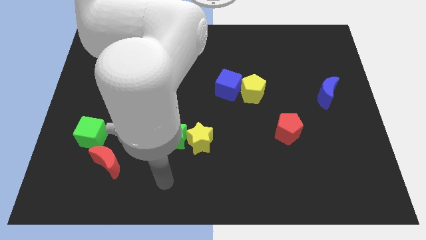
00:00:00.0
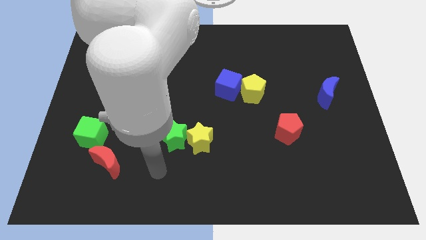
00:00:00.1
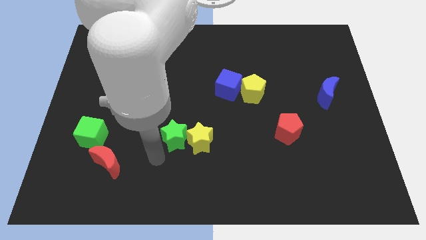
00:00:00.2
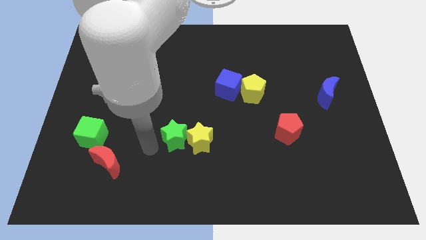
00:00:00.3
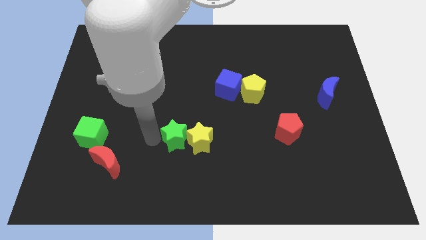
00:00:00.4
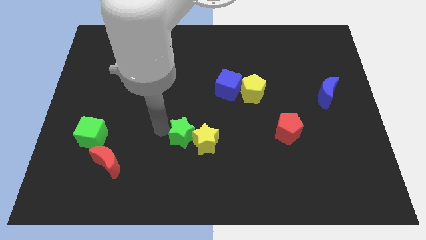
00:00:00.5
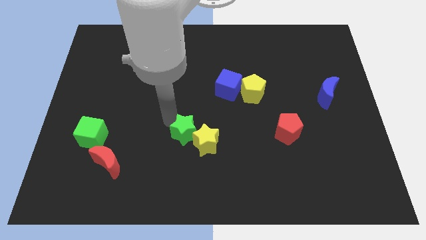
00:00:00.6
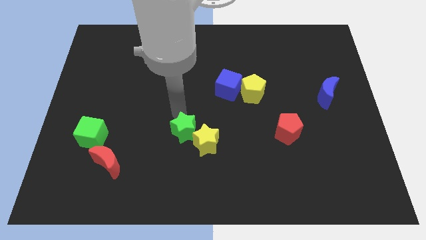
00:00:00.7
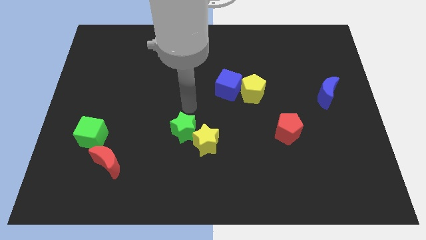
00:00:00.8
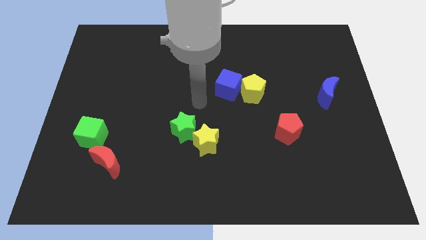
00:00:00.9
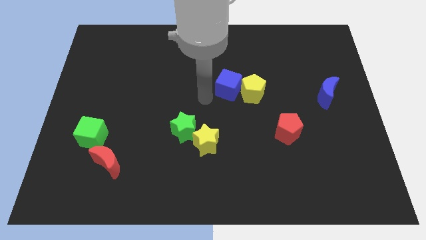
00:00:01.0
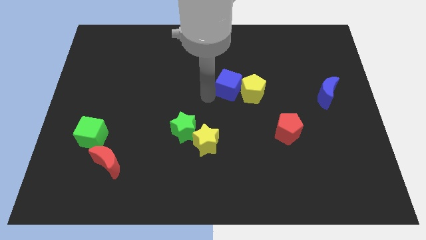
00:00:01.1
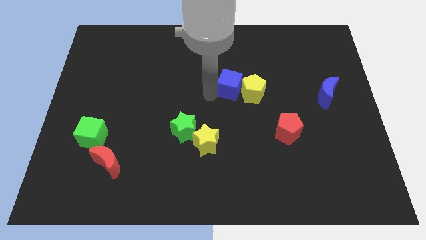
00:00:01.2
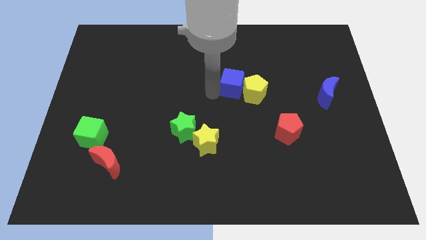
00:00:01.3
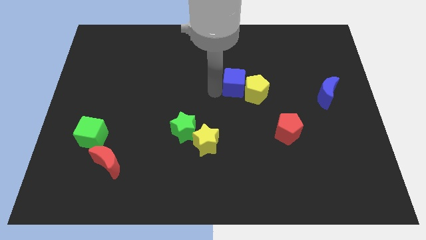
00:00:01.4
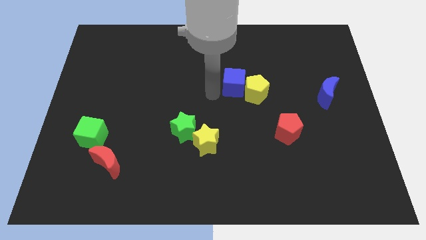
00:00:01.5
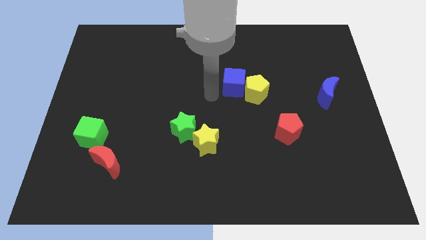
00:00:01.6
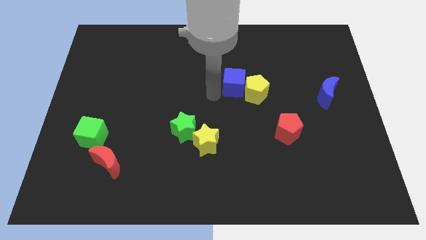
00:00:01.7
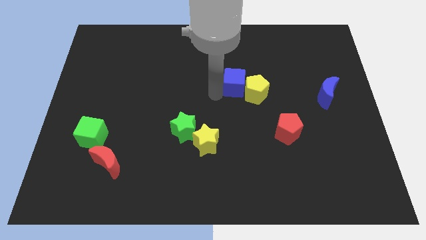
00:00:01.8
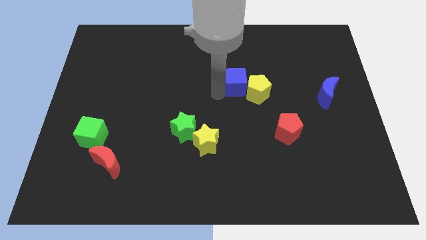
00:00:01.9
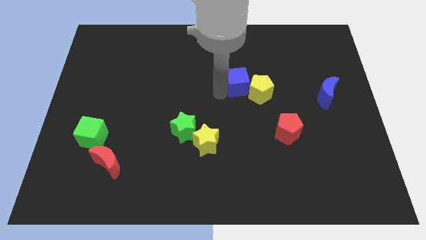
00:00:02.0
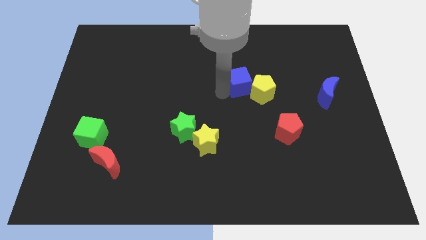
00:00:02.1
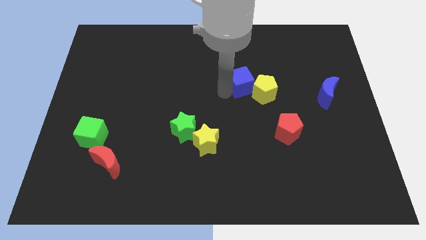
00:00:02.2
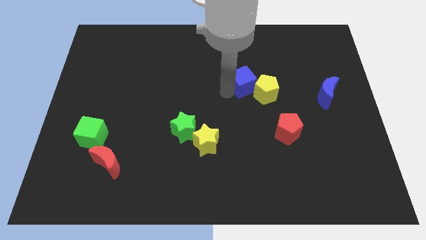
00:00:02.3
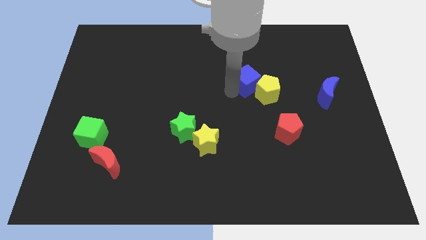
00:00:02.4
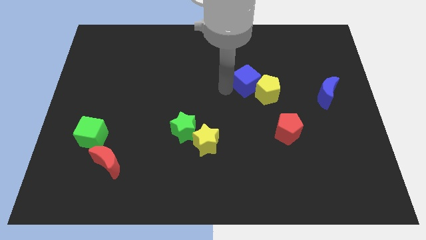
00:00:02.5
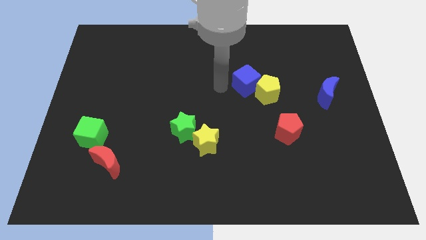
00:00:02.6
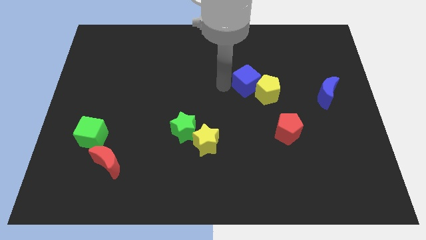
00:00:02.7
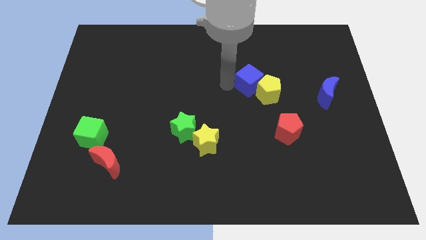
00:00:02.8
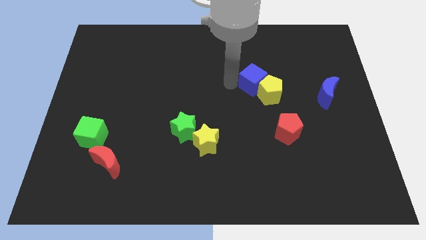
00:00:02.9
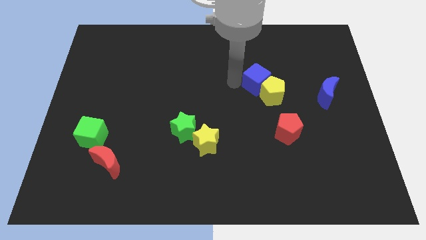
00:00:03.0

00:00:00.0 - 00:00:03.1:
slide the blue cube slightly to the right

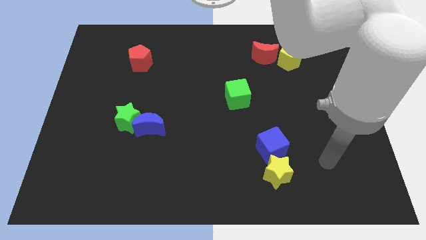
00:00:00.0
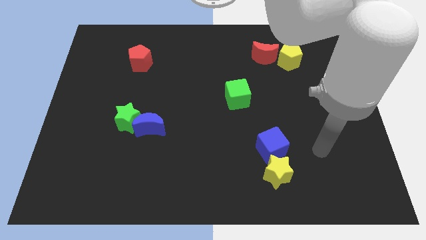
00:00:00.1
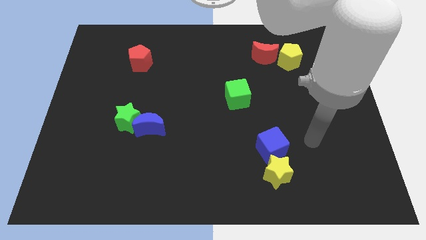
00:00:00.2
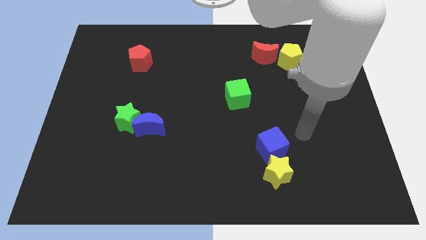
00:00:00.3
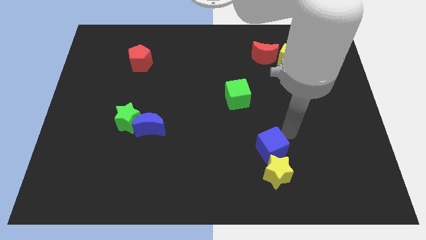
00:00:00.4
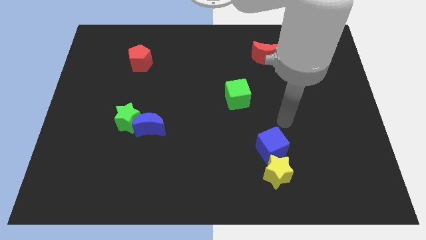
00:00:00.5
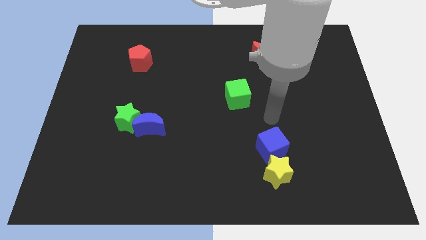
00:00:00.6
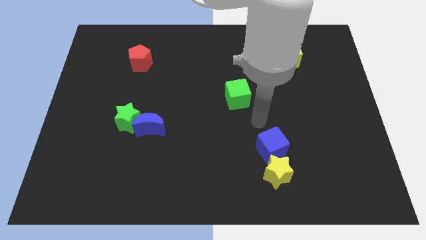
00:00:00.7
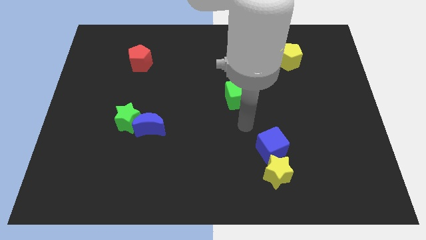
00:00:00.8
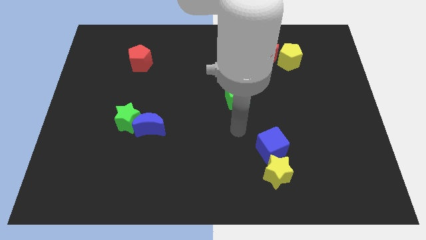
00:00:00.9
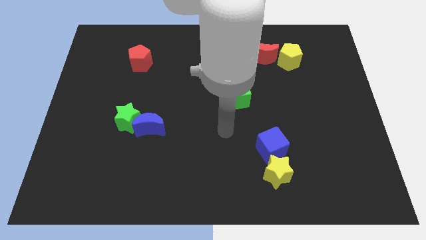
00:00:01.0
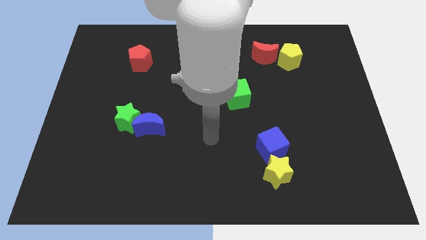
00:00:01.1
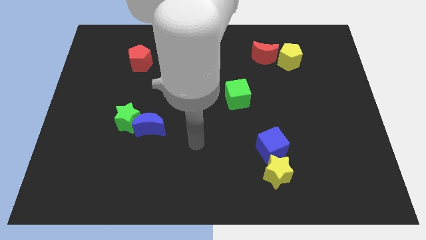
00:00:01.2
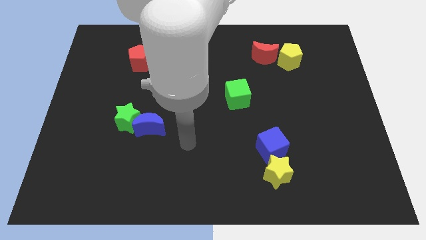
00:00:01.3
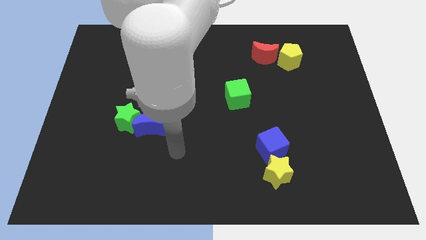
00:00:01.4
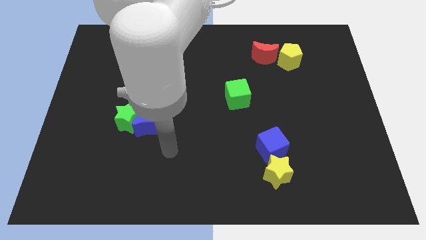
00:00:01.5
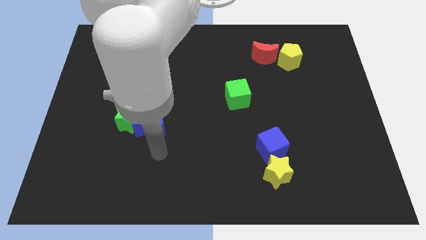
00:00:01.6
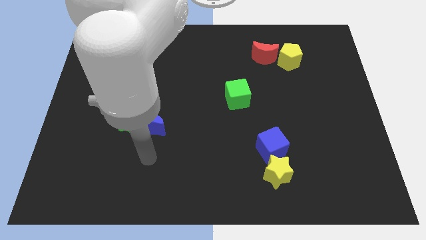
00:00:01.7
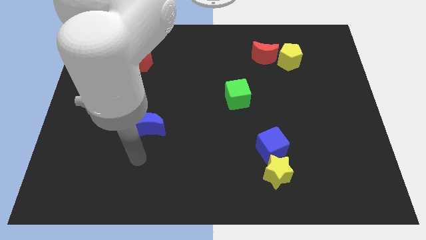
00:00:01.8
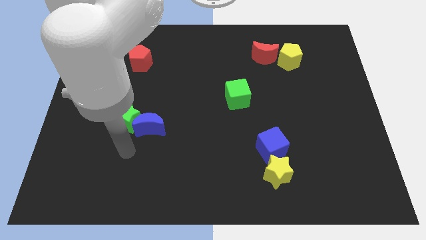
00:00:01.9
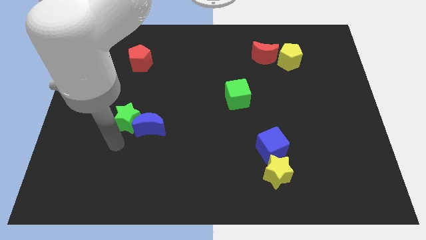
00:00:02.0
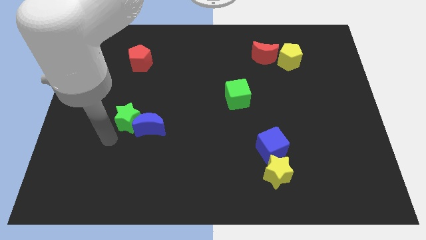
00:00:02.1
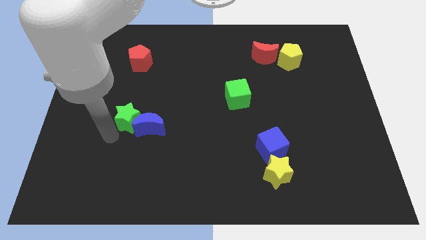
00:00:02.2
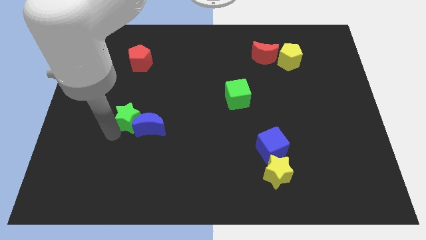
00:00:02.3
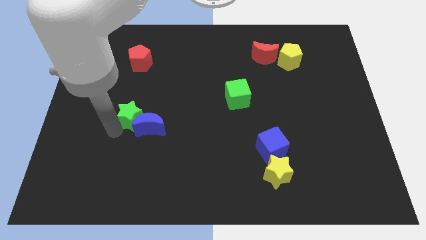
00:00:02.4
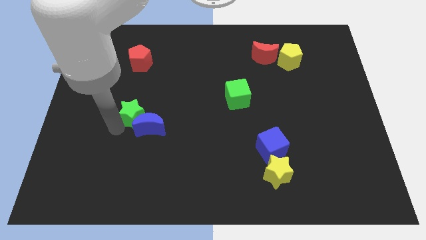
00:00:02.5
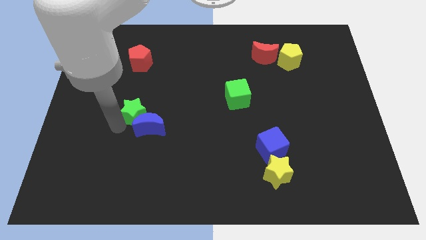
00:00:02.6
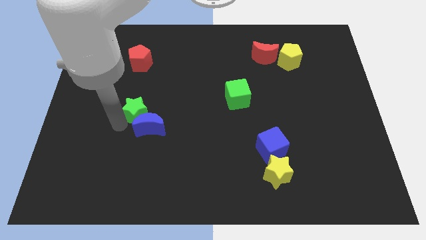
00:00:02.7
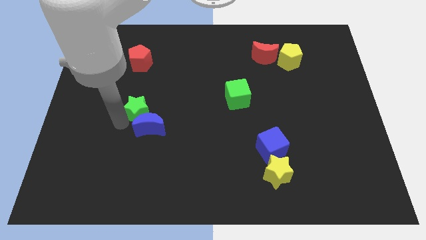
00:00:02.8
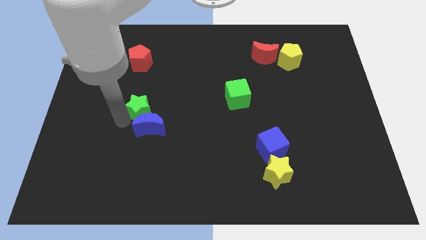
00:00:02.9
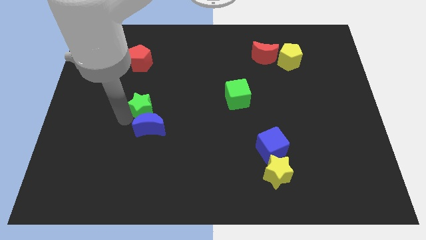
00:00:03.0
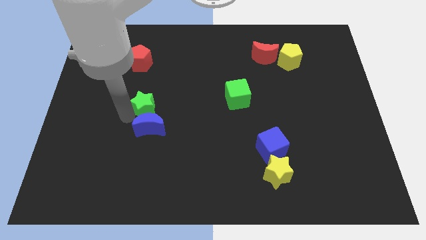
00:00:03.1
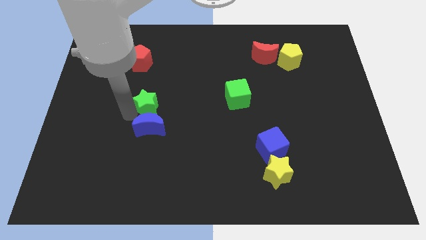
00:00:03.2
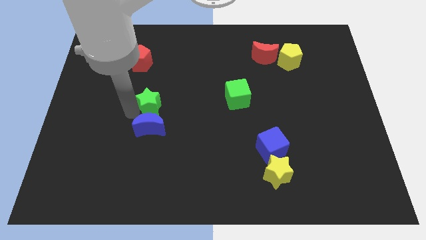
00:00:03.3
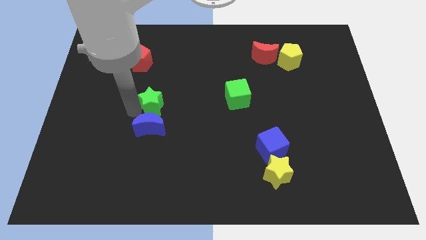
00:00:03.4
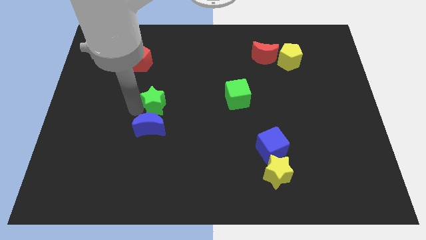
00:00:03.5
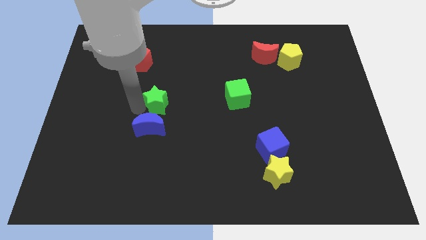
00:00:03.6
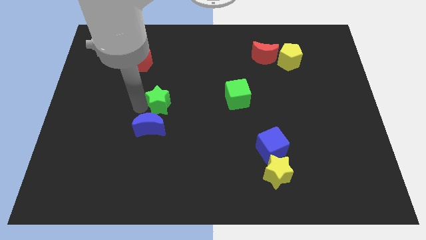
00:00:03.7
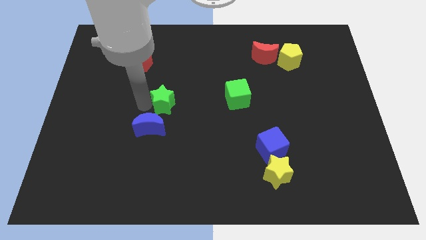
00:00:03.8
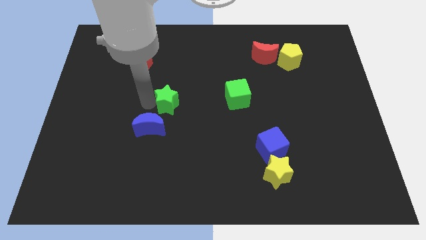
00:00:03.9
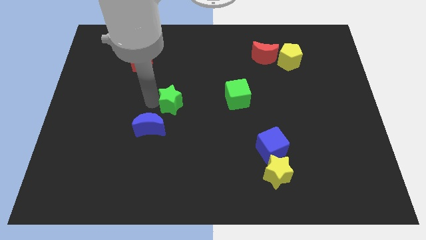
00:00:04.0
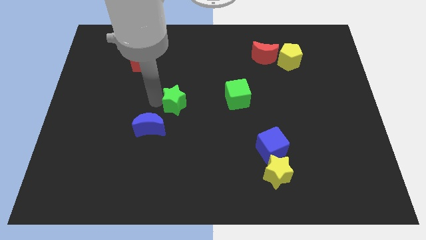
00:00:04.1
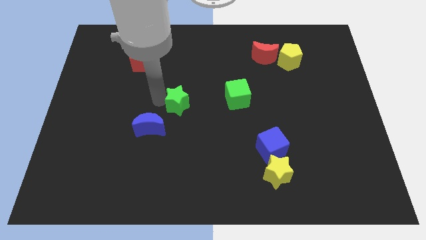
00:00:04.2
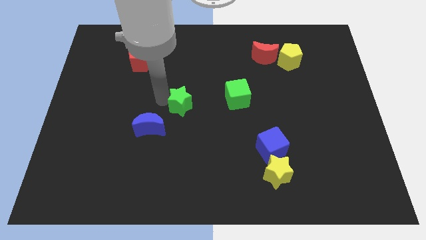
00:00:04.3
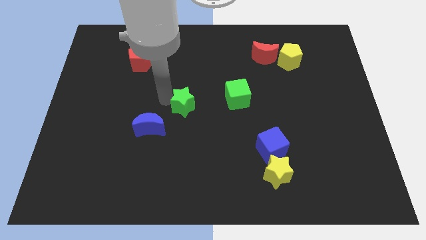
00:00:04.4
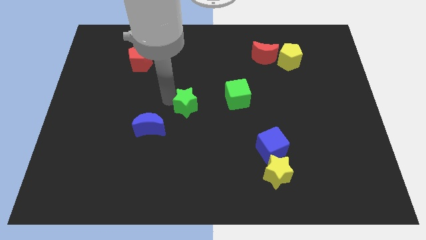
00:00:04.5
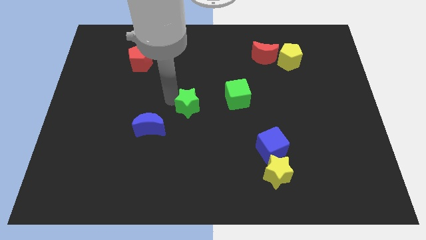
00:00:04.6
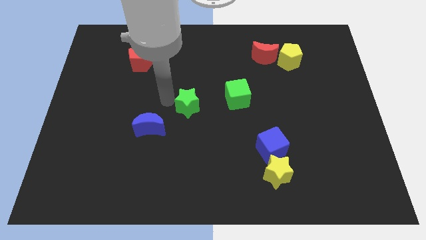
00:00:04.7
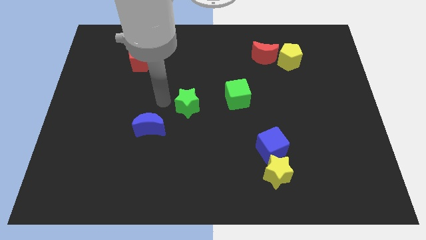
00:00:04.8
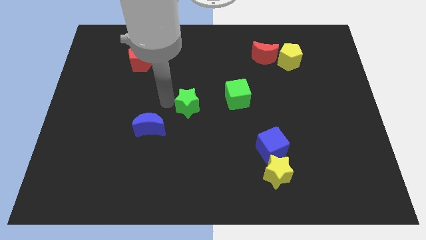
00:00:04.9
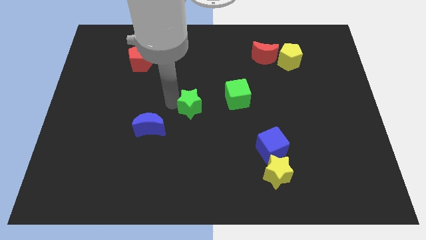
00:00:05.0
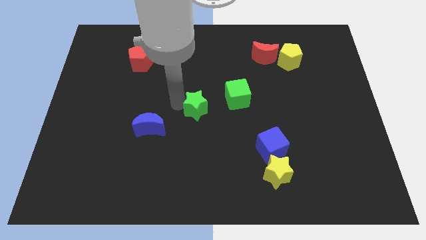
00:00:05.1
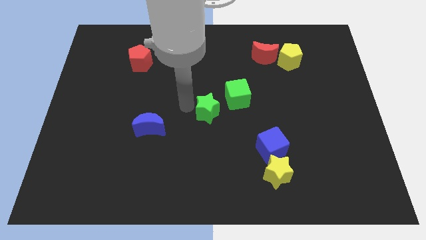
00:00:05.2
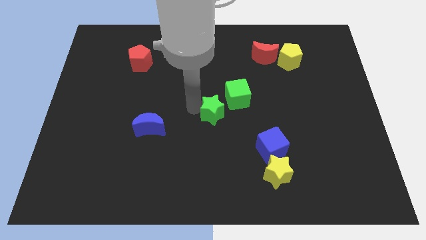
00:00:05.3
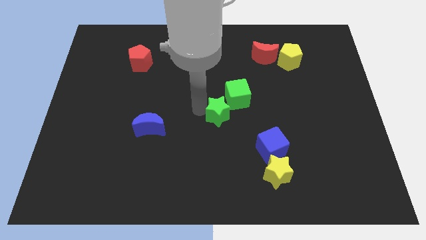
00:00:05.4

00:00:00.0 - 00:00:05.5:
move the green star to the right

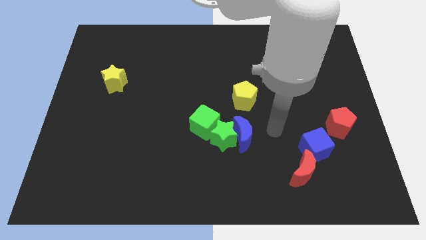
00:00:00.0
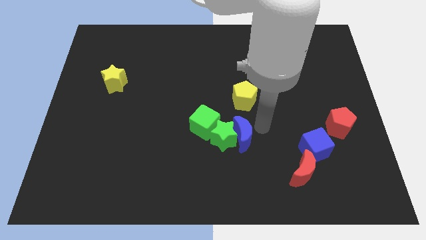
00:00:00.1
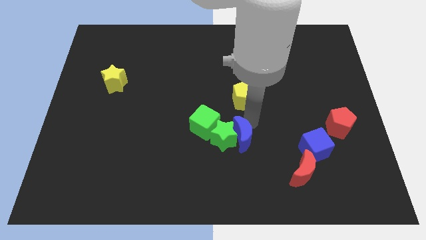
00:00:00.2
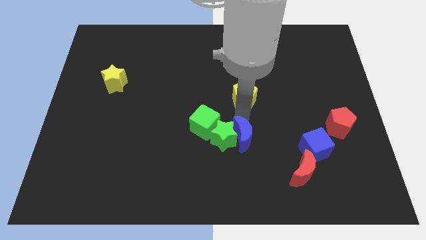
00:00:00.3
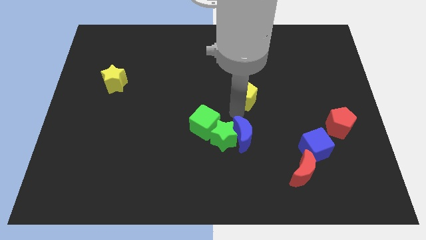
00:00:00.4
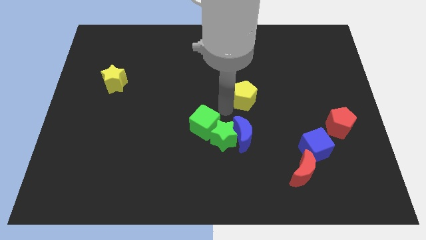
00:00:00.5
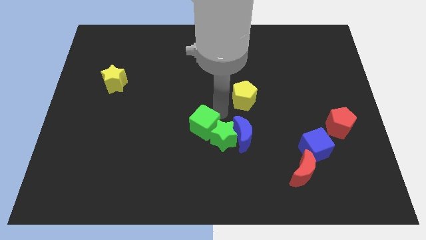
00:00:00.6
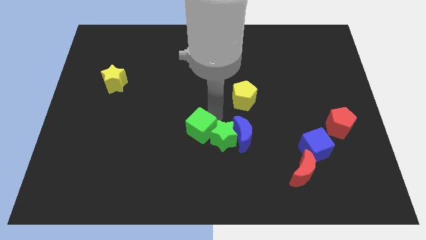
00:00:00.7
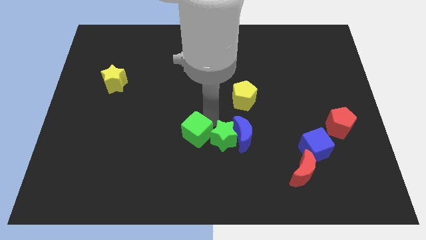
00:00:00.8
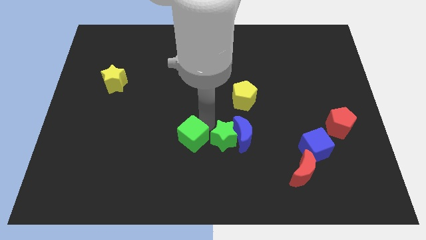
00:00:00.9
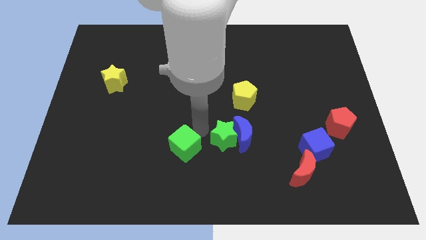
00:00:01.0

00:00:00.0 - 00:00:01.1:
push the green cube somewhat diagonally downwards and to the left
